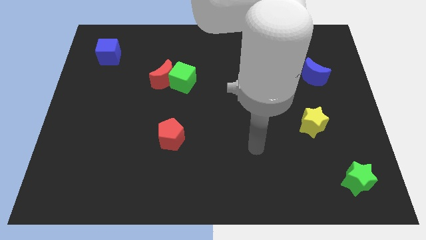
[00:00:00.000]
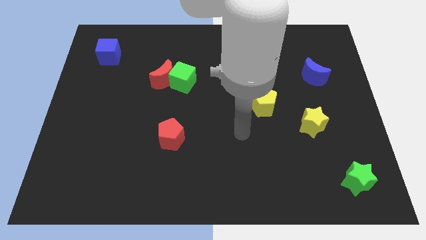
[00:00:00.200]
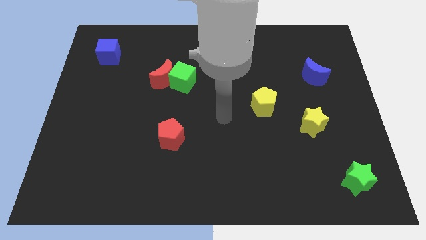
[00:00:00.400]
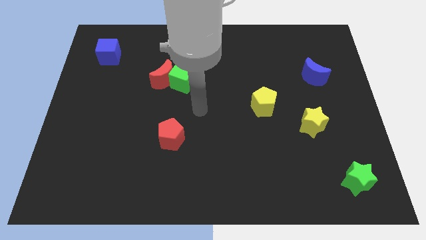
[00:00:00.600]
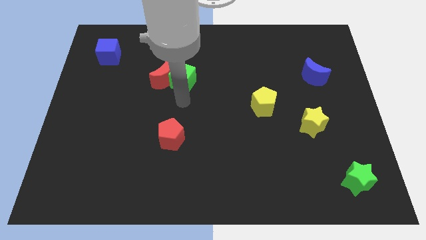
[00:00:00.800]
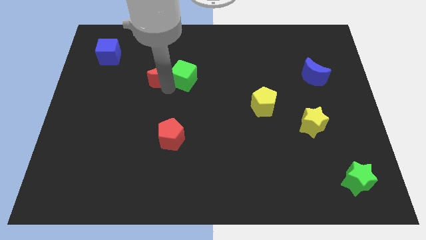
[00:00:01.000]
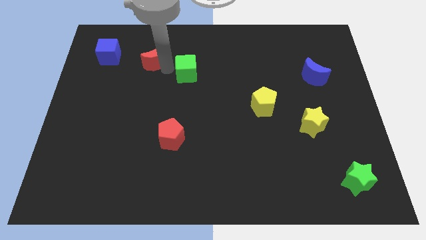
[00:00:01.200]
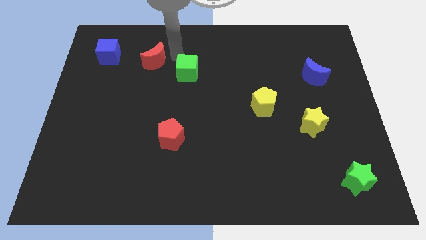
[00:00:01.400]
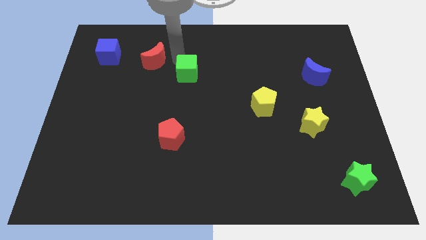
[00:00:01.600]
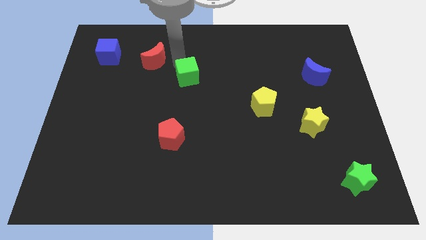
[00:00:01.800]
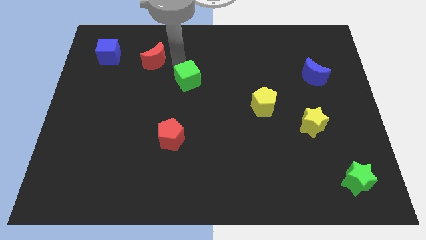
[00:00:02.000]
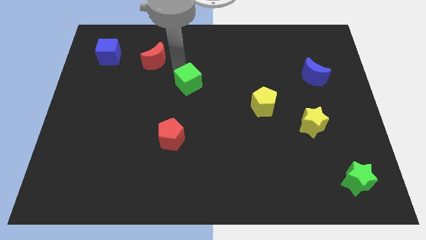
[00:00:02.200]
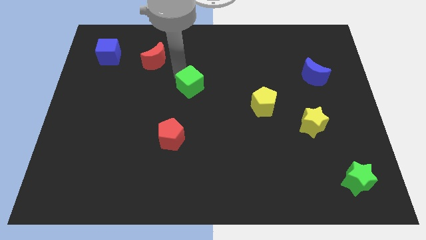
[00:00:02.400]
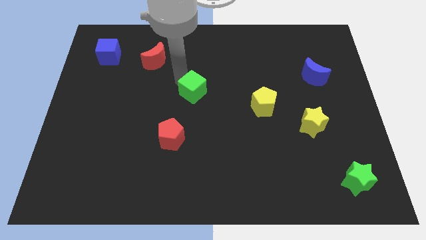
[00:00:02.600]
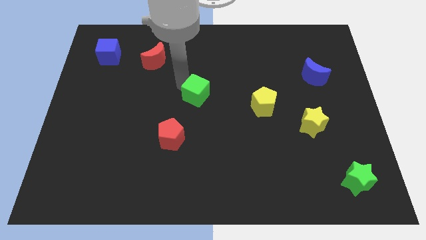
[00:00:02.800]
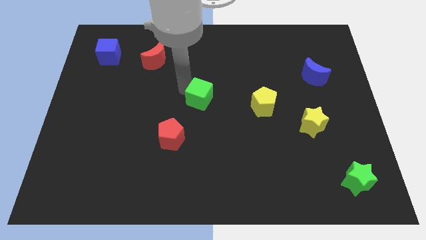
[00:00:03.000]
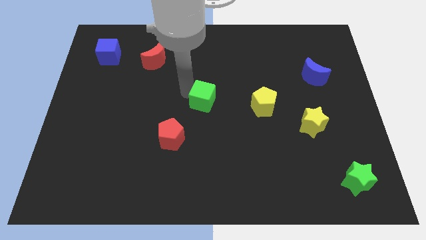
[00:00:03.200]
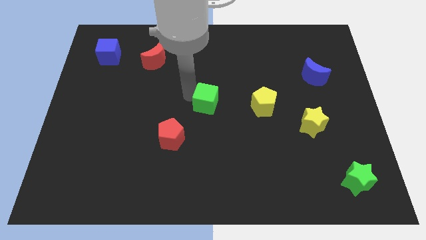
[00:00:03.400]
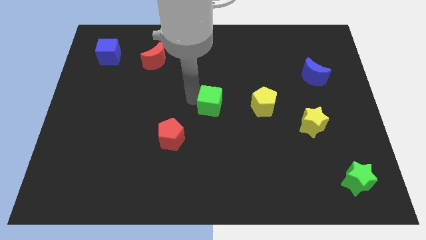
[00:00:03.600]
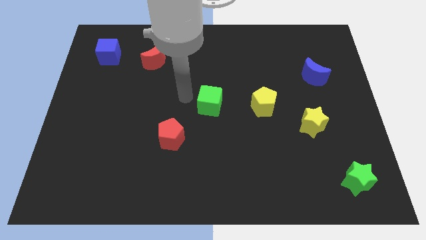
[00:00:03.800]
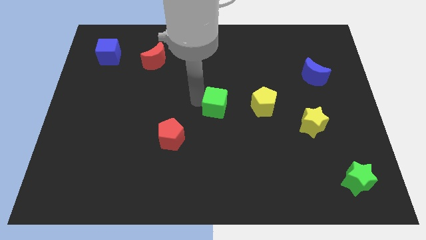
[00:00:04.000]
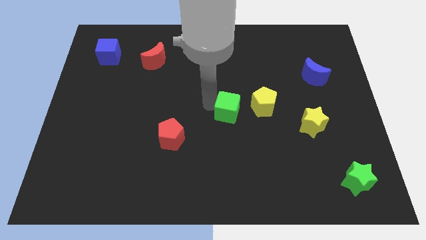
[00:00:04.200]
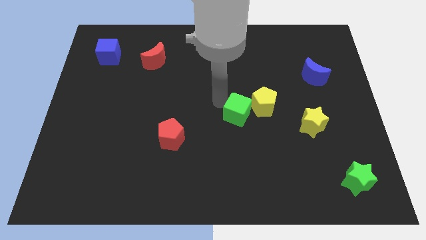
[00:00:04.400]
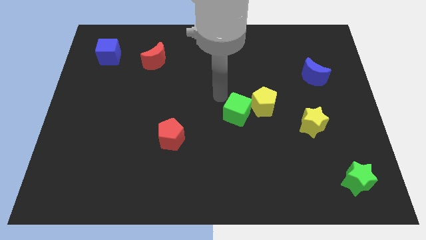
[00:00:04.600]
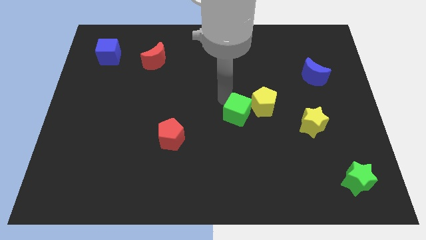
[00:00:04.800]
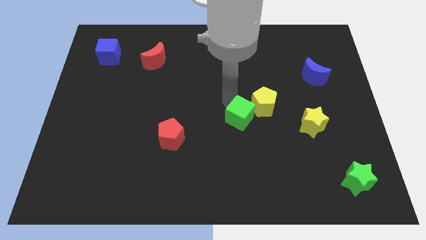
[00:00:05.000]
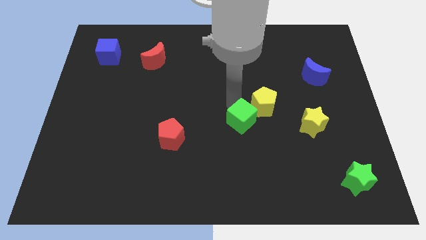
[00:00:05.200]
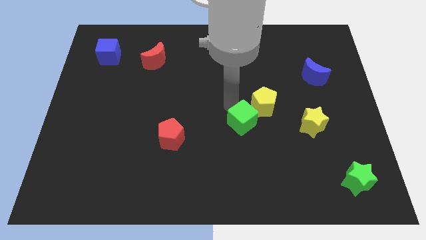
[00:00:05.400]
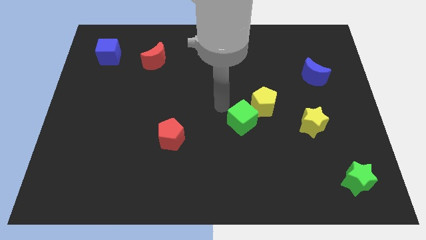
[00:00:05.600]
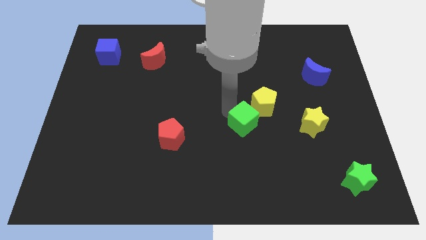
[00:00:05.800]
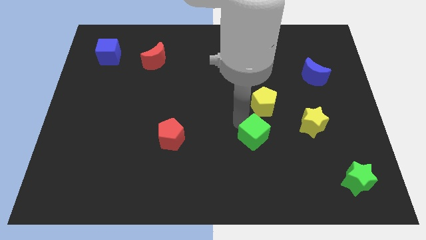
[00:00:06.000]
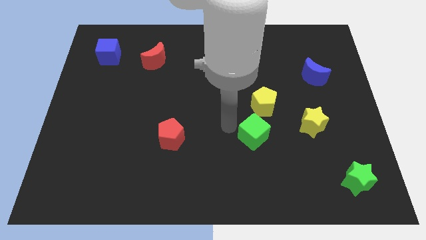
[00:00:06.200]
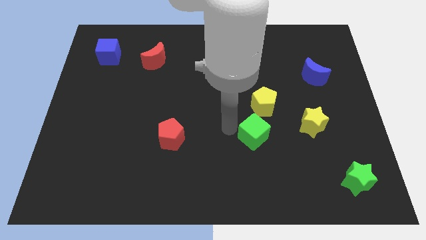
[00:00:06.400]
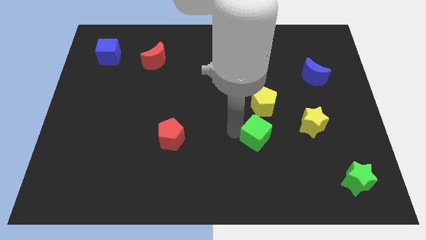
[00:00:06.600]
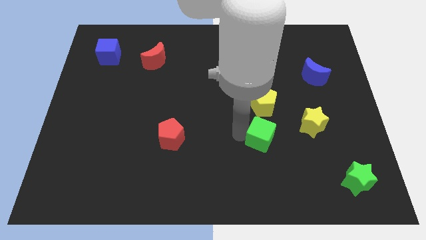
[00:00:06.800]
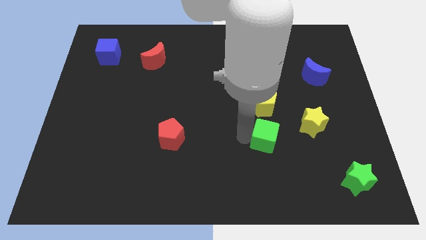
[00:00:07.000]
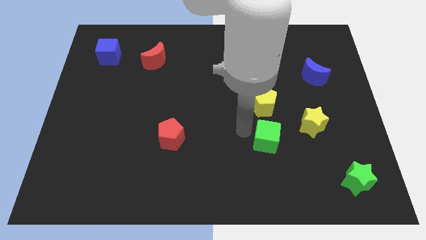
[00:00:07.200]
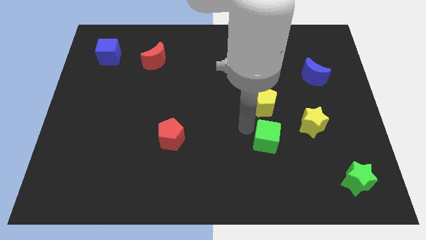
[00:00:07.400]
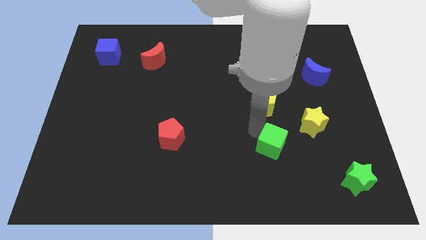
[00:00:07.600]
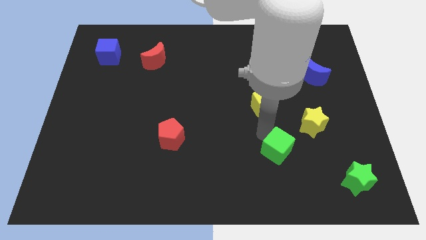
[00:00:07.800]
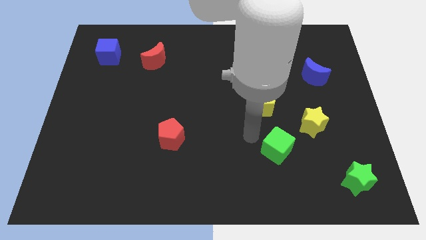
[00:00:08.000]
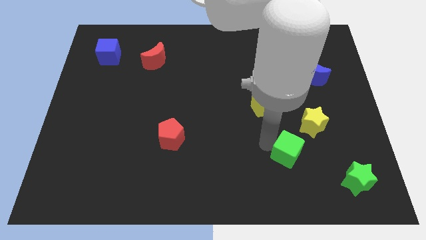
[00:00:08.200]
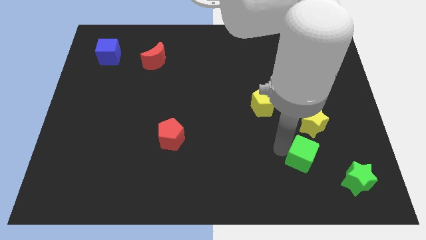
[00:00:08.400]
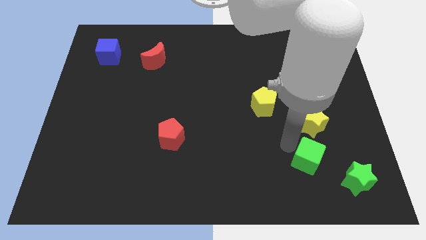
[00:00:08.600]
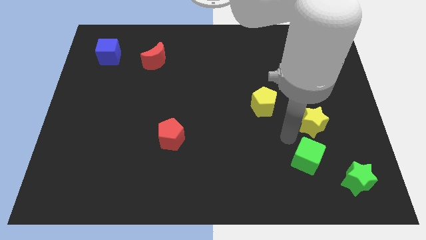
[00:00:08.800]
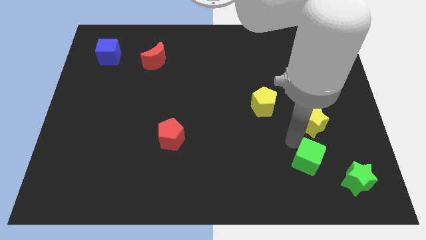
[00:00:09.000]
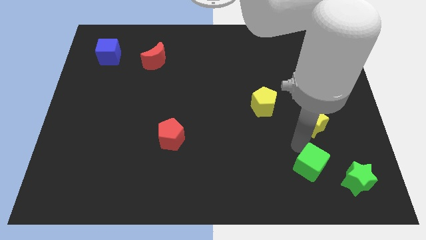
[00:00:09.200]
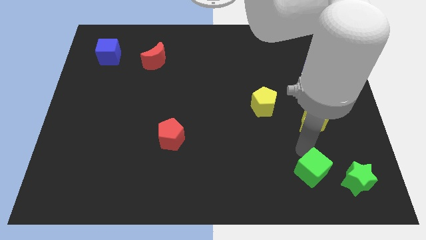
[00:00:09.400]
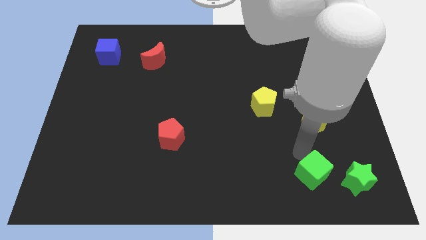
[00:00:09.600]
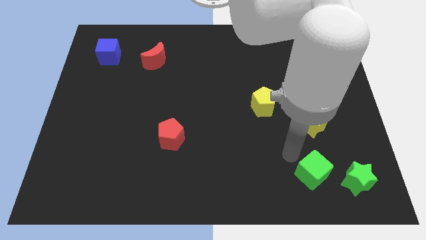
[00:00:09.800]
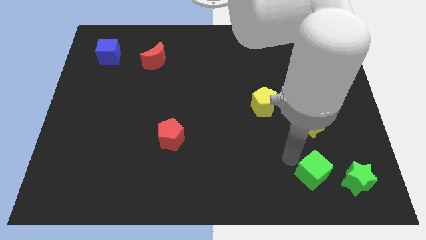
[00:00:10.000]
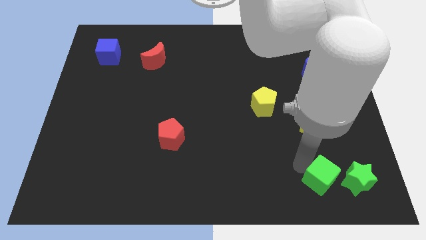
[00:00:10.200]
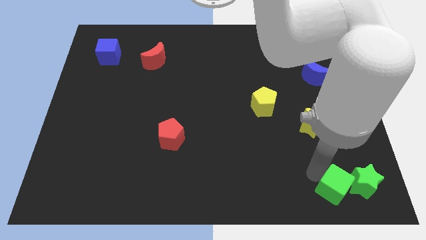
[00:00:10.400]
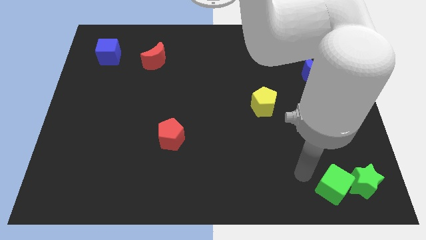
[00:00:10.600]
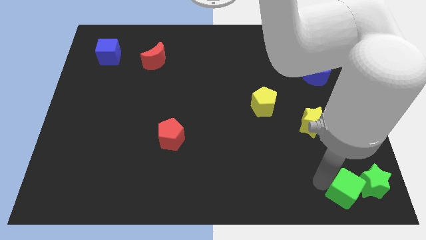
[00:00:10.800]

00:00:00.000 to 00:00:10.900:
slide the green cube to the bottom right

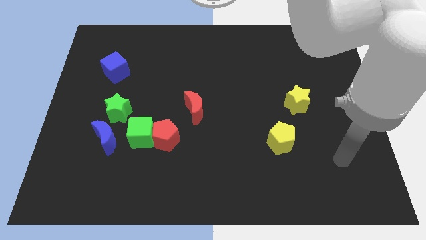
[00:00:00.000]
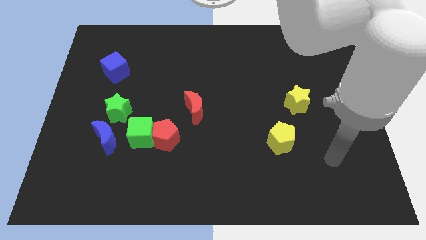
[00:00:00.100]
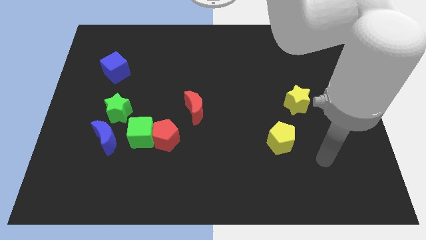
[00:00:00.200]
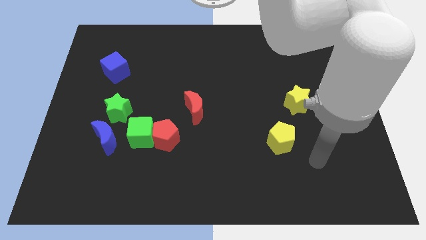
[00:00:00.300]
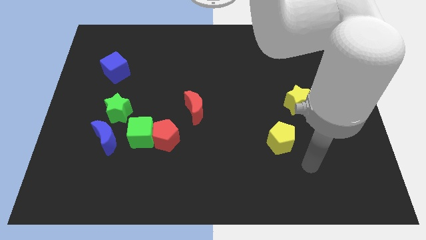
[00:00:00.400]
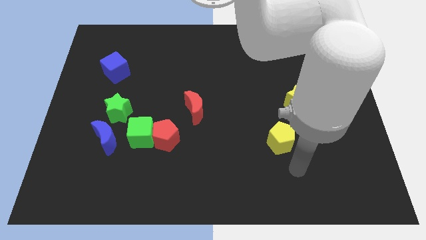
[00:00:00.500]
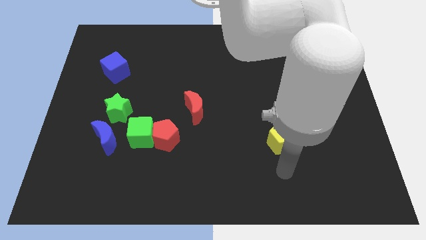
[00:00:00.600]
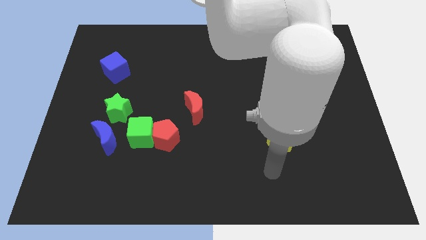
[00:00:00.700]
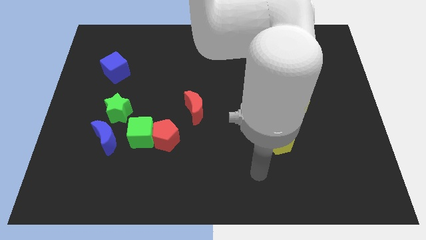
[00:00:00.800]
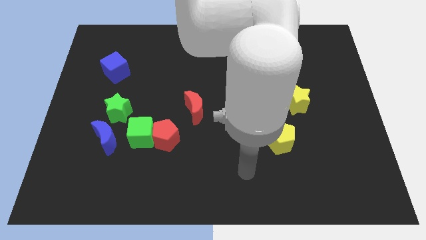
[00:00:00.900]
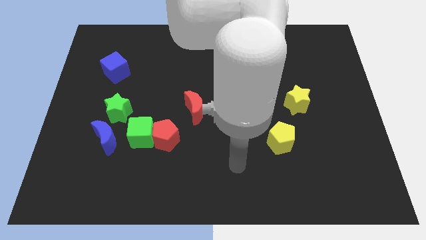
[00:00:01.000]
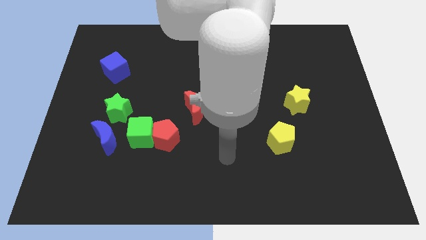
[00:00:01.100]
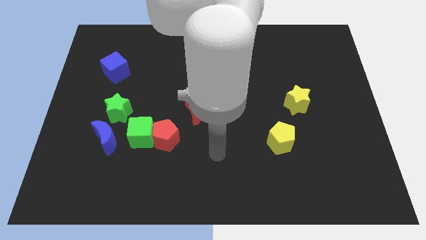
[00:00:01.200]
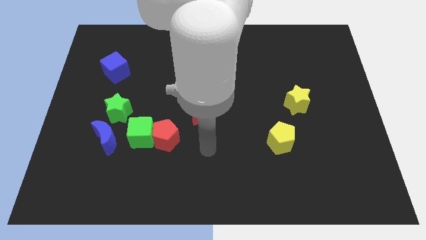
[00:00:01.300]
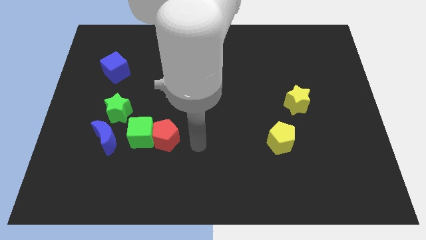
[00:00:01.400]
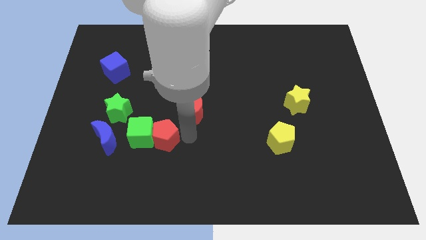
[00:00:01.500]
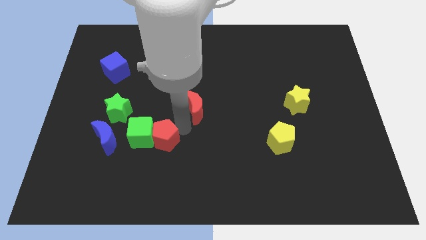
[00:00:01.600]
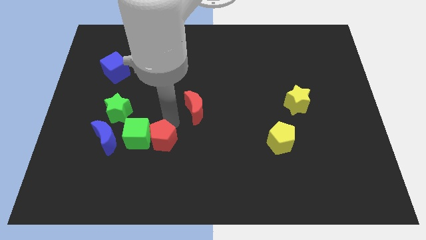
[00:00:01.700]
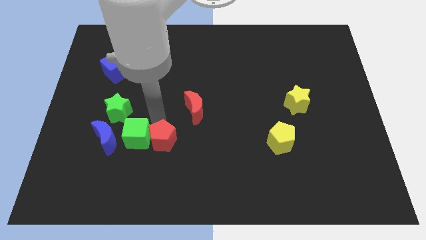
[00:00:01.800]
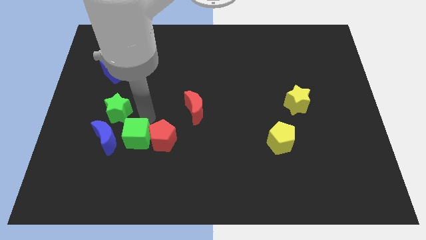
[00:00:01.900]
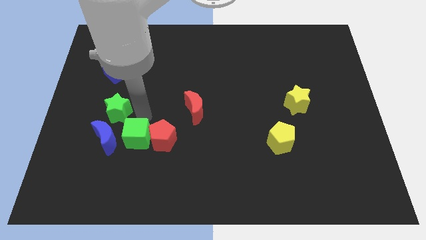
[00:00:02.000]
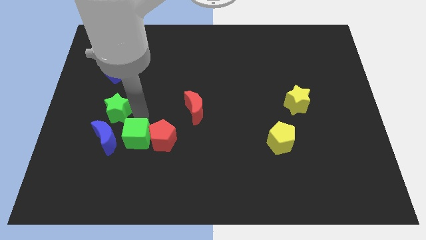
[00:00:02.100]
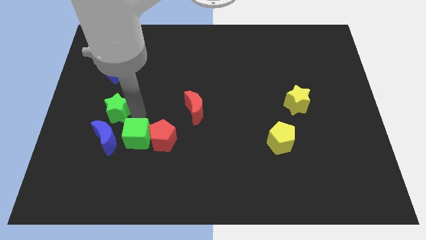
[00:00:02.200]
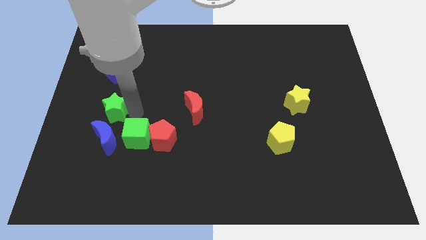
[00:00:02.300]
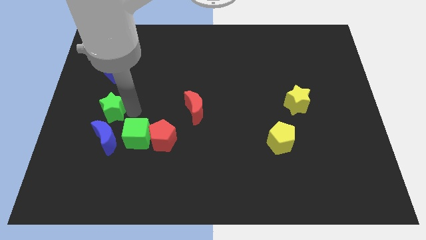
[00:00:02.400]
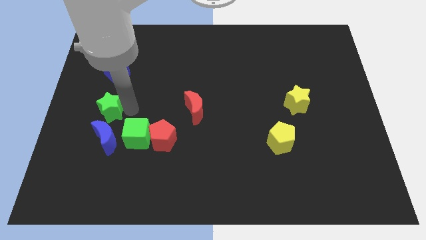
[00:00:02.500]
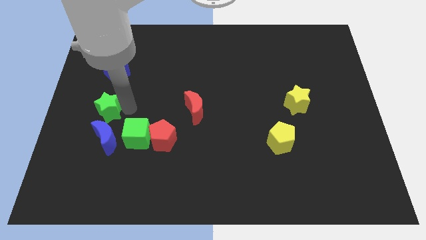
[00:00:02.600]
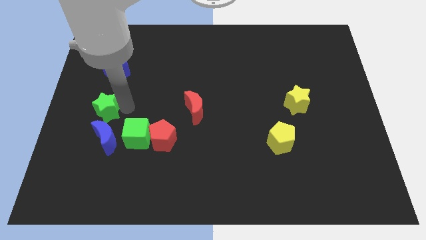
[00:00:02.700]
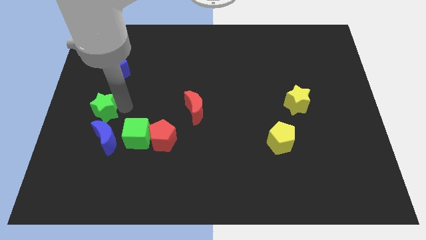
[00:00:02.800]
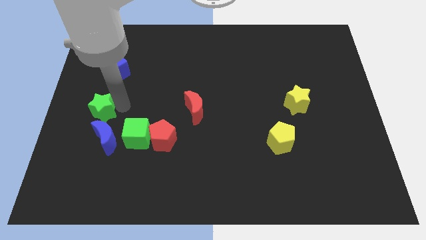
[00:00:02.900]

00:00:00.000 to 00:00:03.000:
put the green star to the left side of the board
